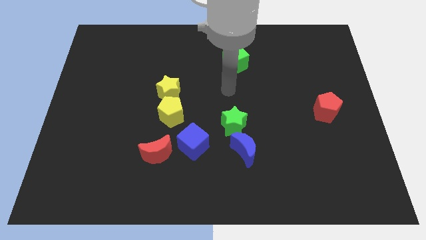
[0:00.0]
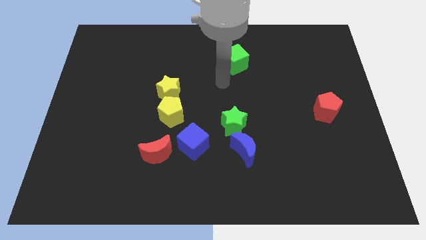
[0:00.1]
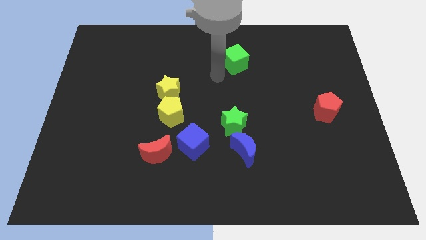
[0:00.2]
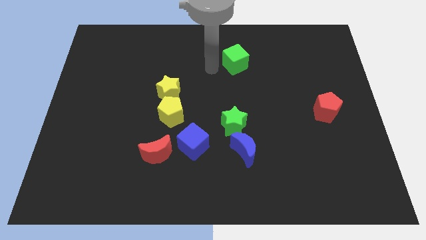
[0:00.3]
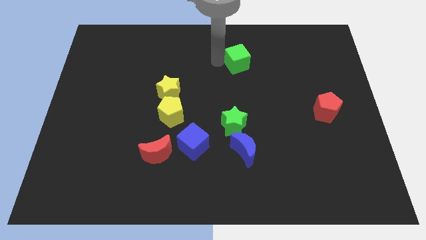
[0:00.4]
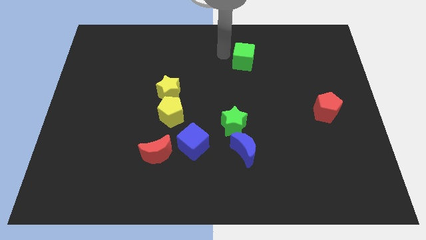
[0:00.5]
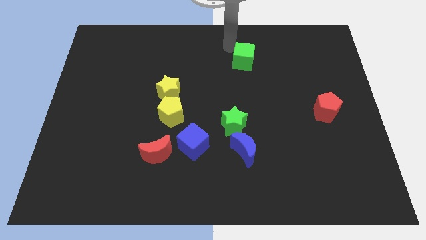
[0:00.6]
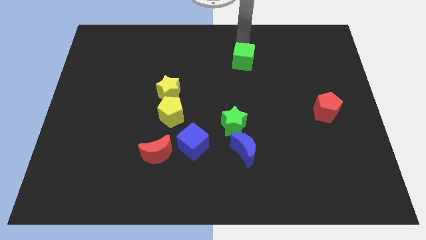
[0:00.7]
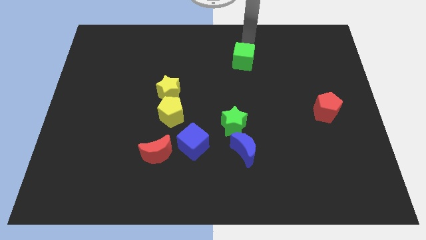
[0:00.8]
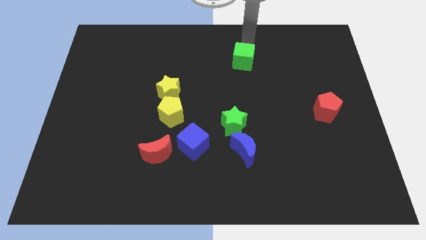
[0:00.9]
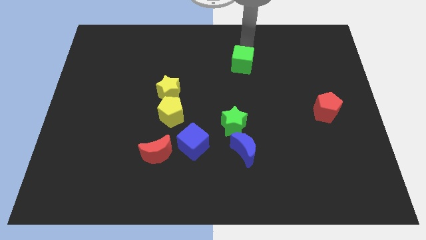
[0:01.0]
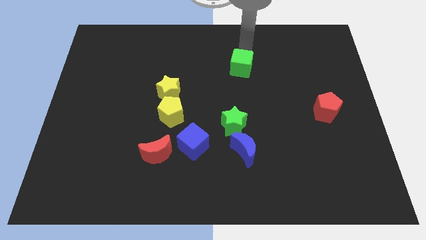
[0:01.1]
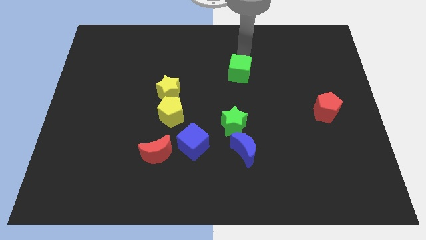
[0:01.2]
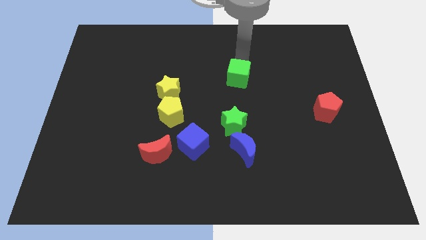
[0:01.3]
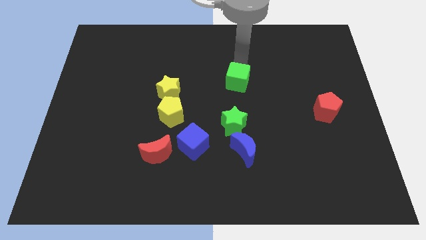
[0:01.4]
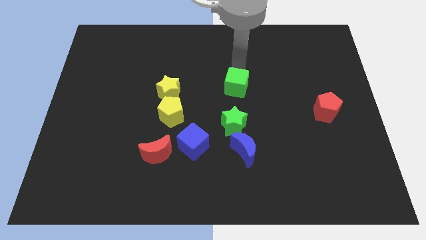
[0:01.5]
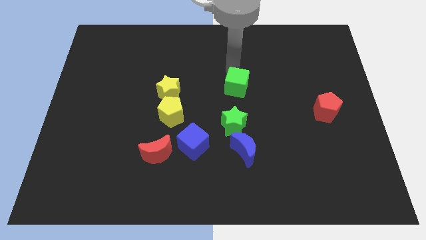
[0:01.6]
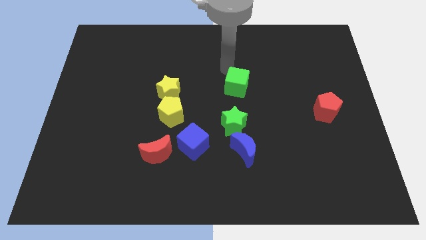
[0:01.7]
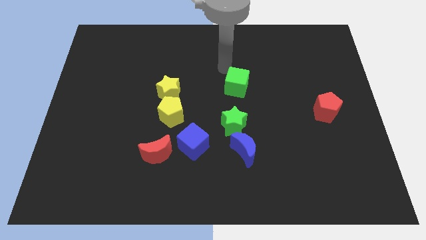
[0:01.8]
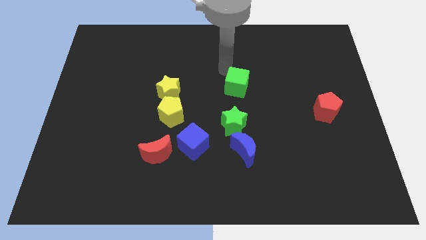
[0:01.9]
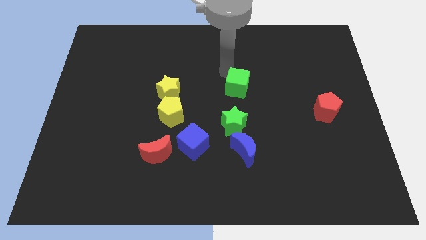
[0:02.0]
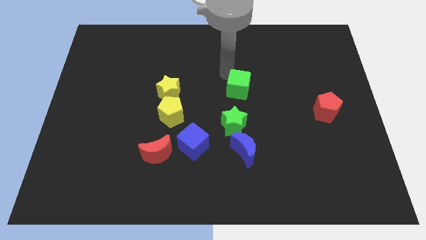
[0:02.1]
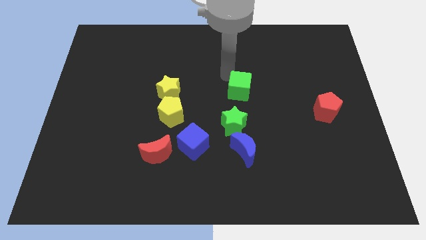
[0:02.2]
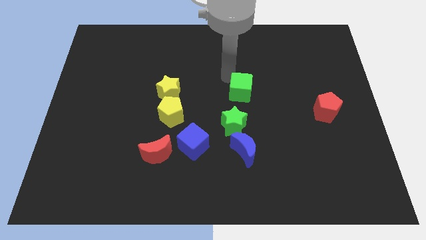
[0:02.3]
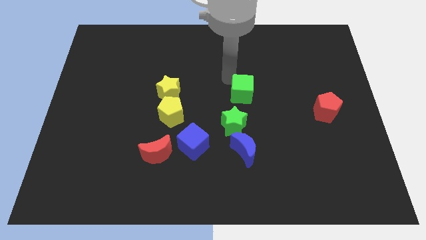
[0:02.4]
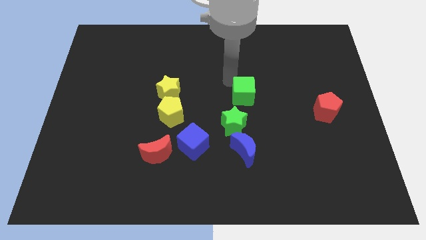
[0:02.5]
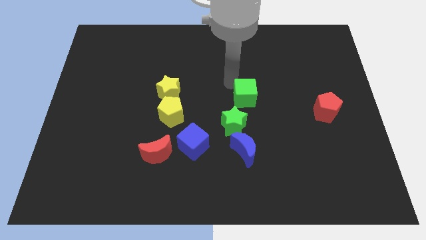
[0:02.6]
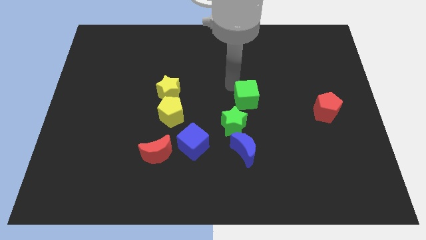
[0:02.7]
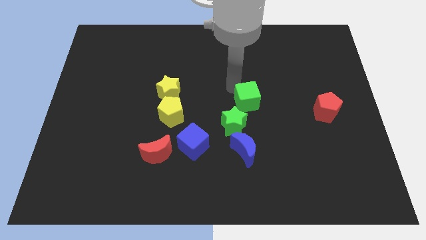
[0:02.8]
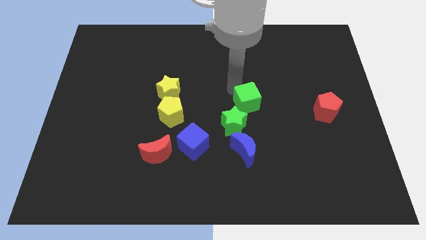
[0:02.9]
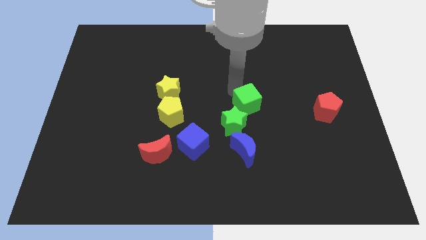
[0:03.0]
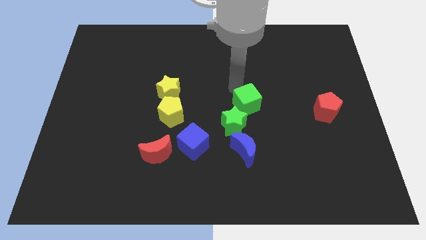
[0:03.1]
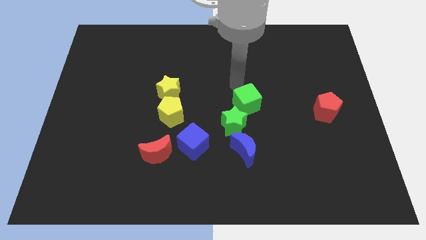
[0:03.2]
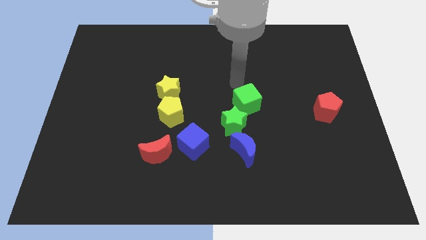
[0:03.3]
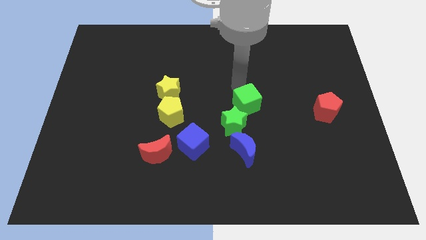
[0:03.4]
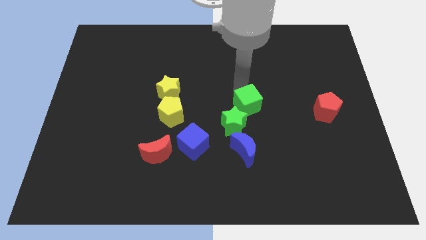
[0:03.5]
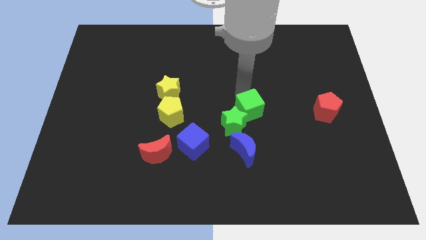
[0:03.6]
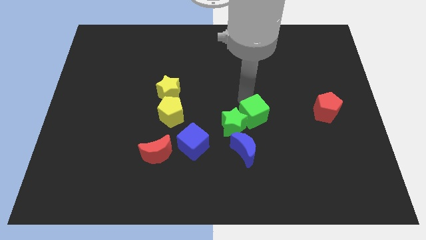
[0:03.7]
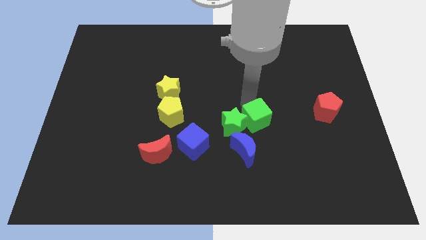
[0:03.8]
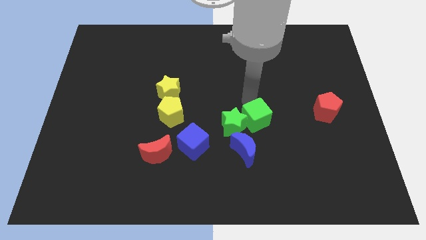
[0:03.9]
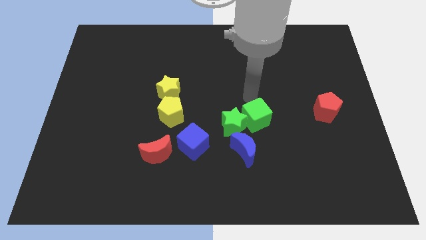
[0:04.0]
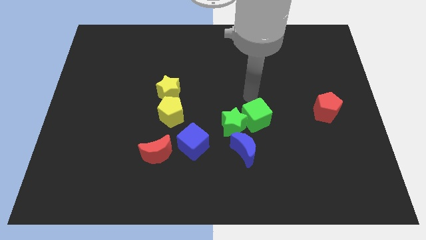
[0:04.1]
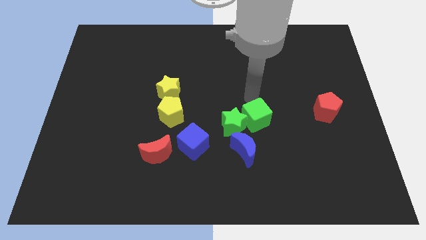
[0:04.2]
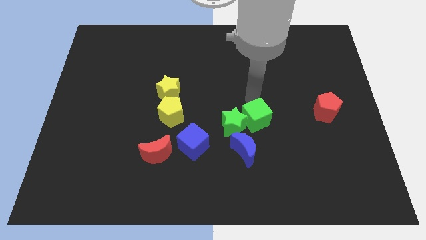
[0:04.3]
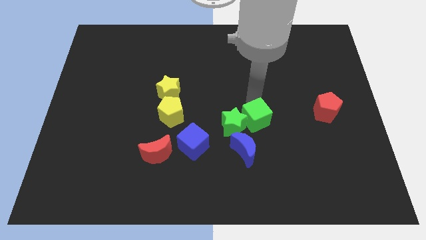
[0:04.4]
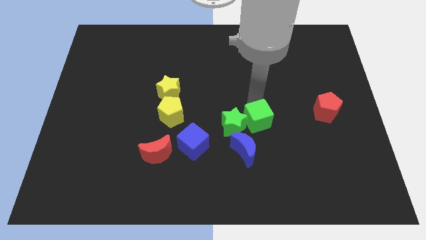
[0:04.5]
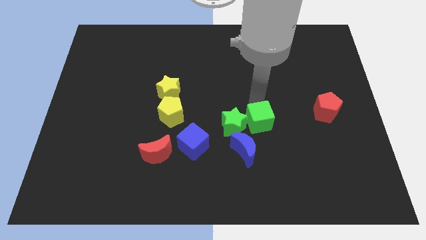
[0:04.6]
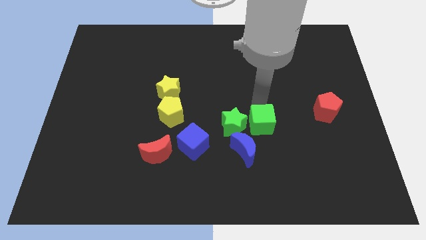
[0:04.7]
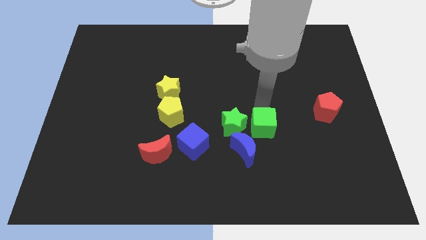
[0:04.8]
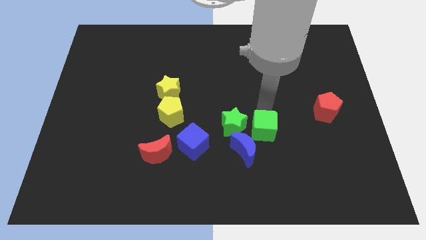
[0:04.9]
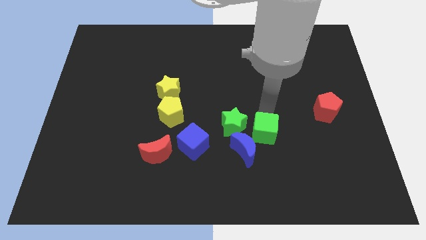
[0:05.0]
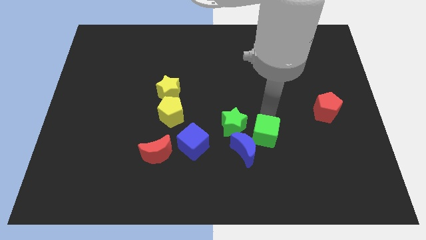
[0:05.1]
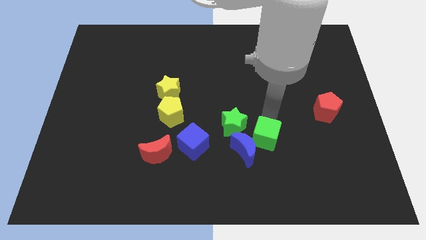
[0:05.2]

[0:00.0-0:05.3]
slide the green cube towards the blue moon

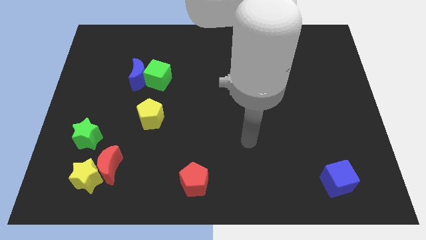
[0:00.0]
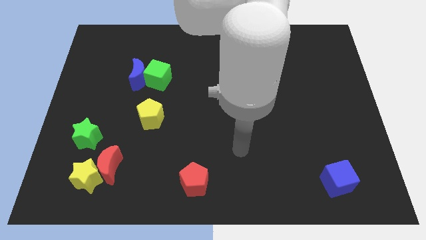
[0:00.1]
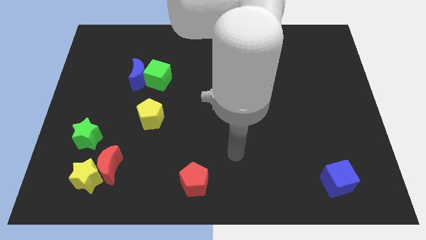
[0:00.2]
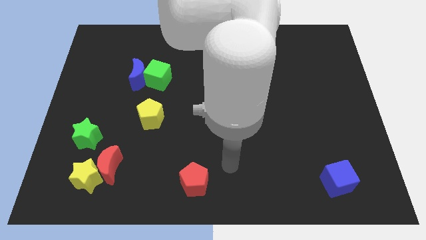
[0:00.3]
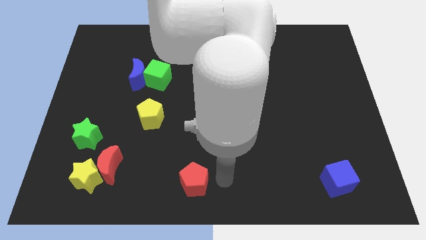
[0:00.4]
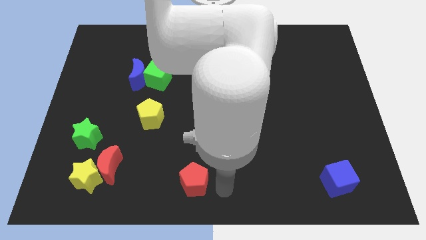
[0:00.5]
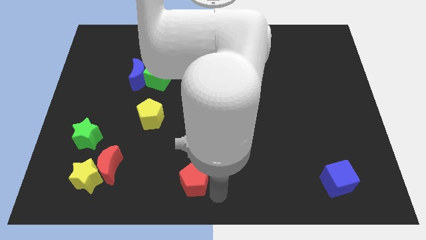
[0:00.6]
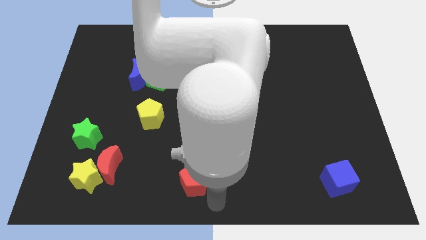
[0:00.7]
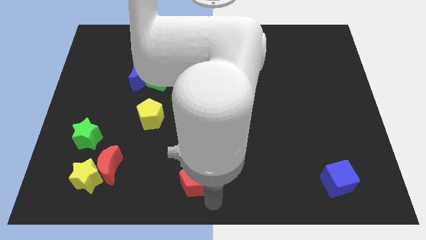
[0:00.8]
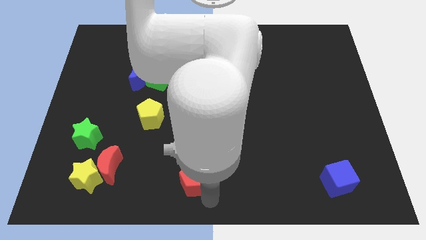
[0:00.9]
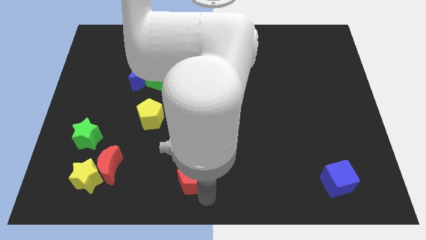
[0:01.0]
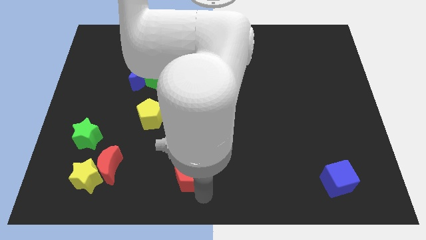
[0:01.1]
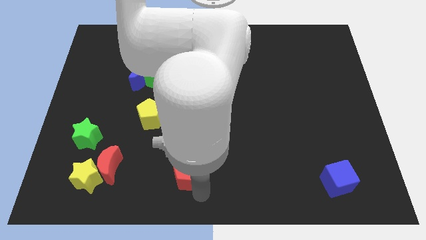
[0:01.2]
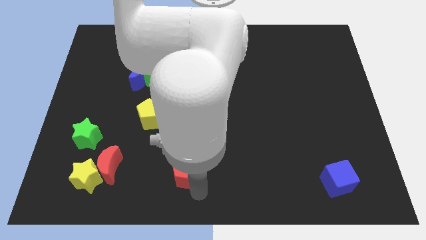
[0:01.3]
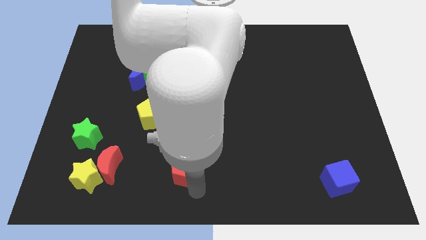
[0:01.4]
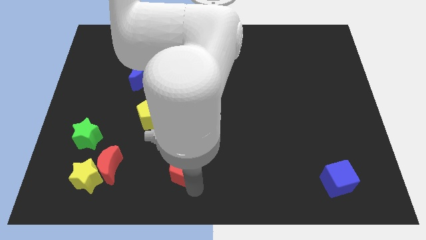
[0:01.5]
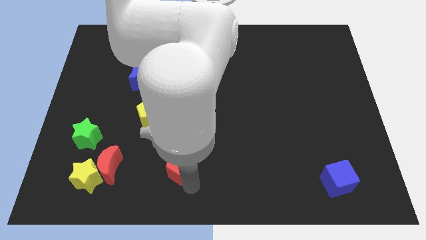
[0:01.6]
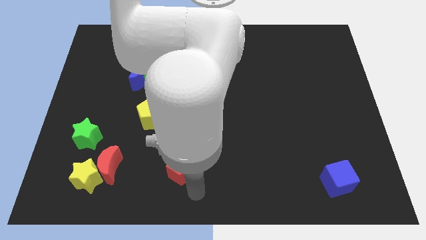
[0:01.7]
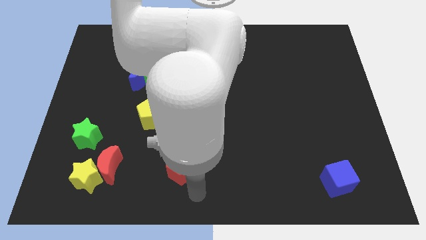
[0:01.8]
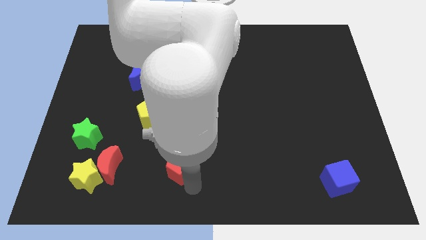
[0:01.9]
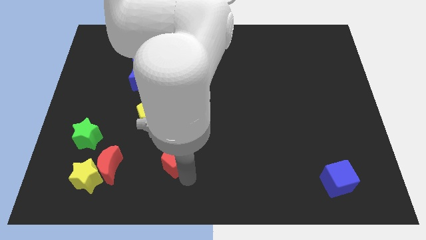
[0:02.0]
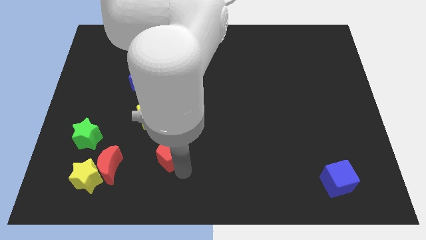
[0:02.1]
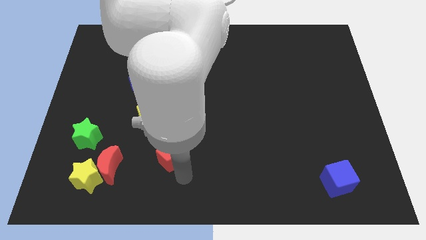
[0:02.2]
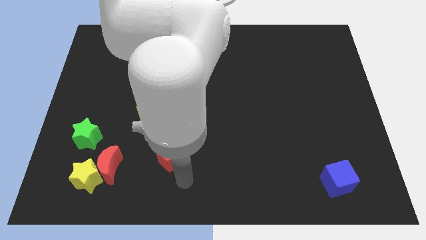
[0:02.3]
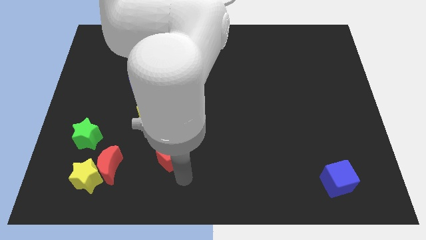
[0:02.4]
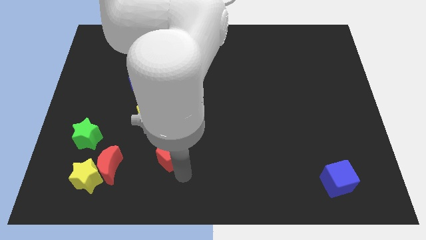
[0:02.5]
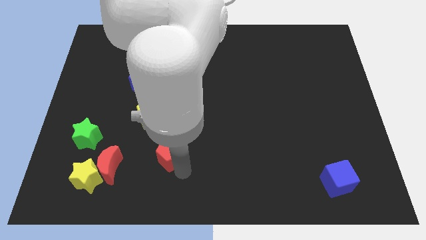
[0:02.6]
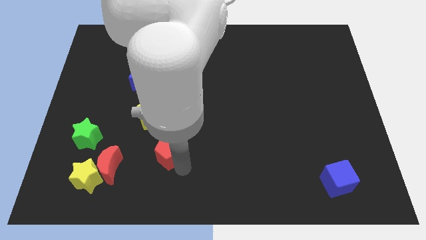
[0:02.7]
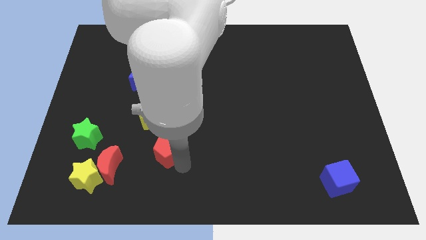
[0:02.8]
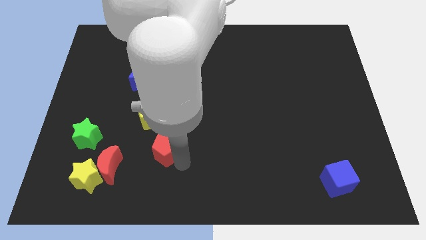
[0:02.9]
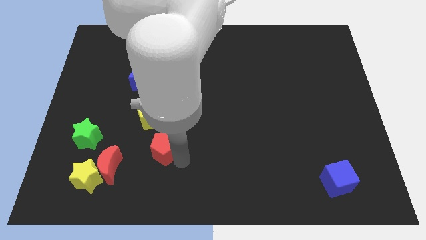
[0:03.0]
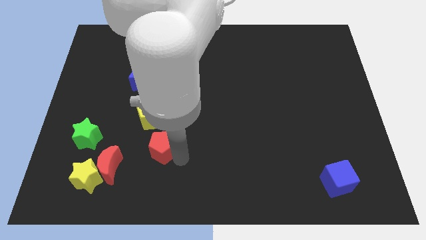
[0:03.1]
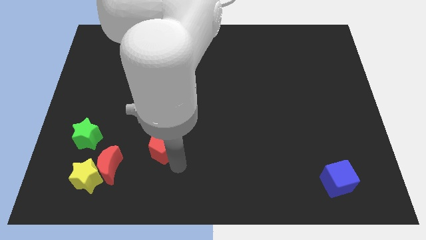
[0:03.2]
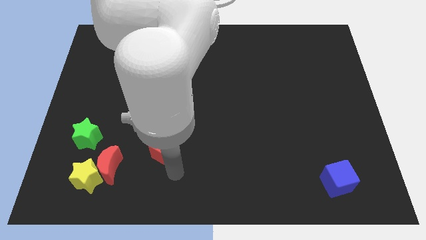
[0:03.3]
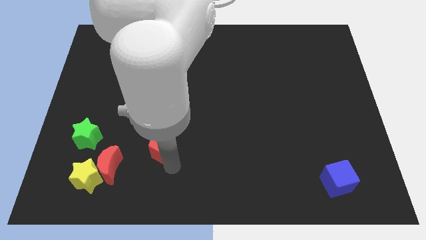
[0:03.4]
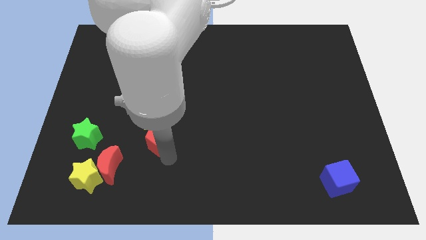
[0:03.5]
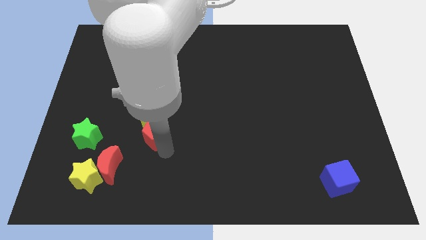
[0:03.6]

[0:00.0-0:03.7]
move the red pentagon to the yellow pentagon
